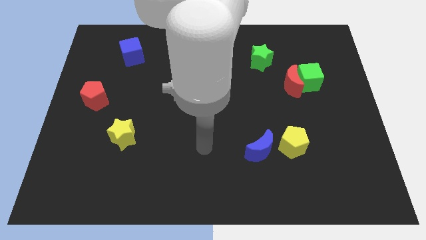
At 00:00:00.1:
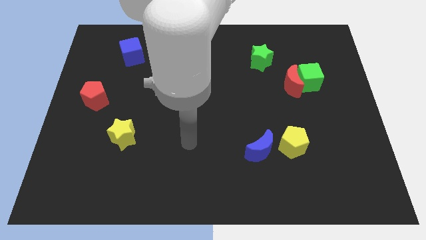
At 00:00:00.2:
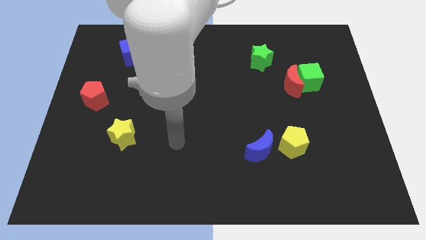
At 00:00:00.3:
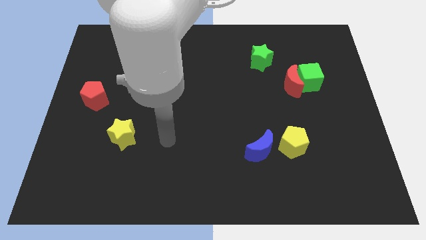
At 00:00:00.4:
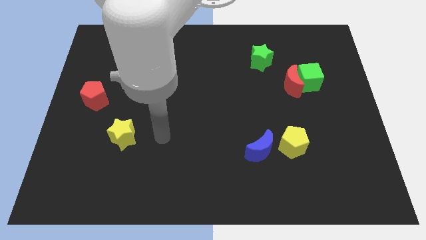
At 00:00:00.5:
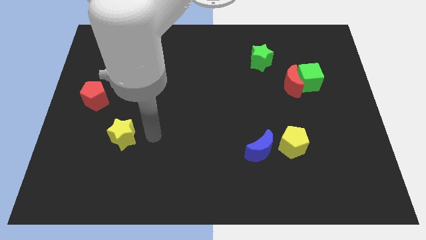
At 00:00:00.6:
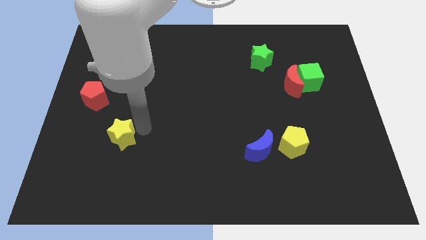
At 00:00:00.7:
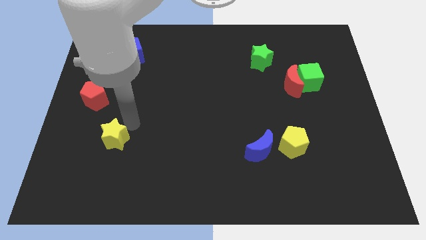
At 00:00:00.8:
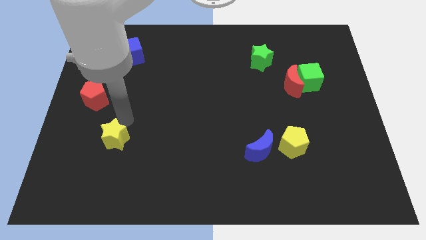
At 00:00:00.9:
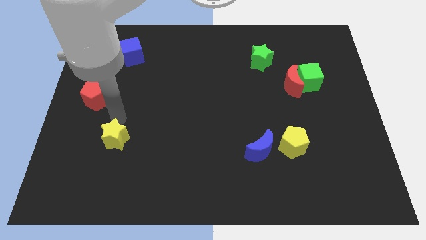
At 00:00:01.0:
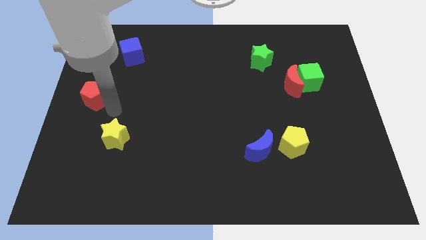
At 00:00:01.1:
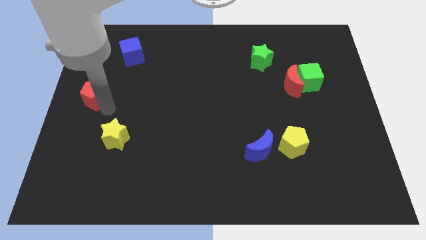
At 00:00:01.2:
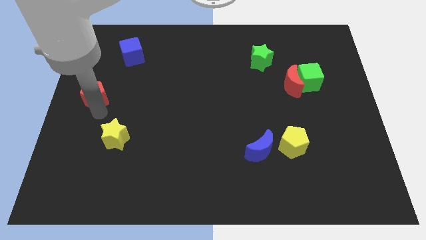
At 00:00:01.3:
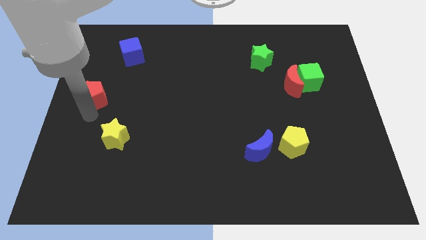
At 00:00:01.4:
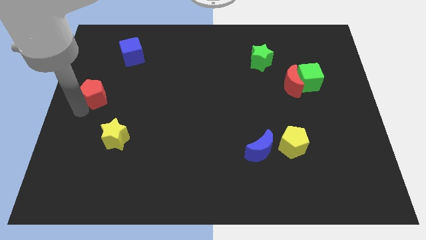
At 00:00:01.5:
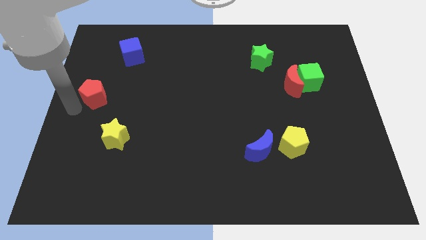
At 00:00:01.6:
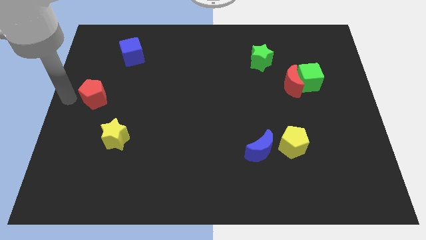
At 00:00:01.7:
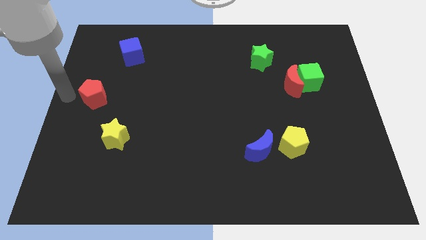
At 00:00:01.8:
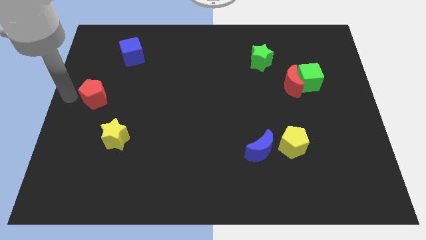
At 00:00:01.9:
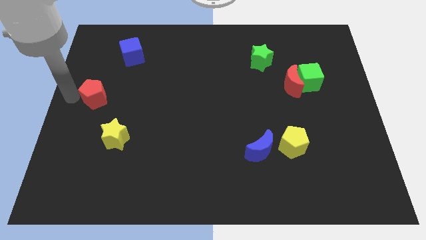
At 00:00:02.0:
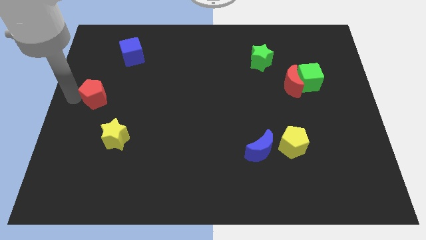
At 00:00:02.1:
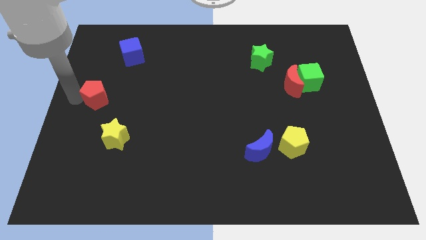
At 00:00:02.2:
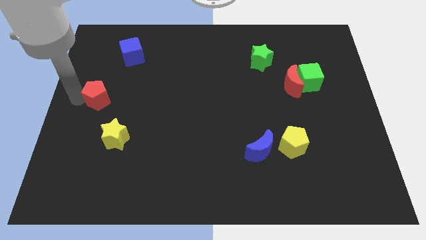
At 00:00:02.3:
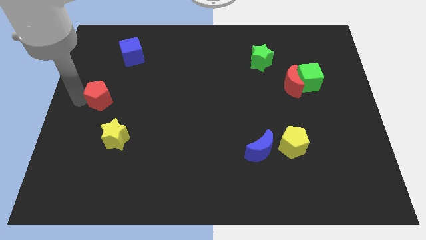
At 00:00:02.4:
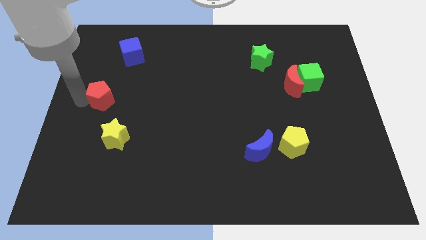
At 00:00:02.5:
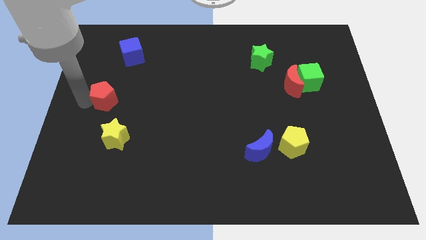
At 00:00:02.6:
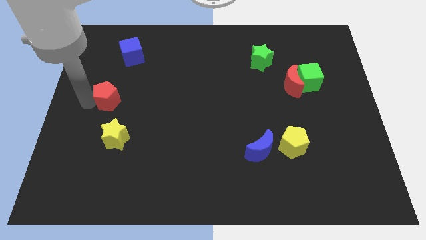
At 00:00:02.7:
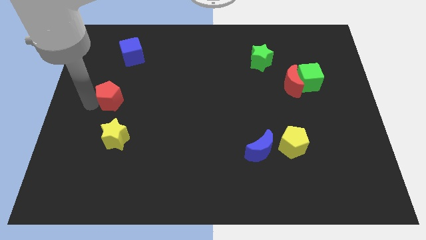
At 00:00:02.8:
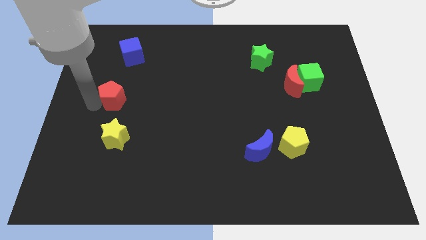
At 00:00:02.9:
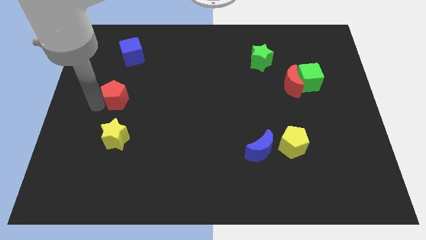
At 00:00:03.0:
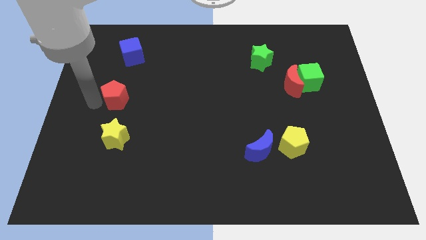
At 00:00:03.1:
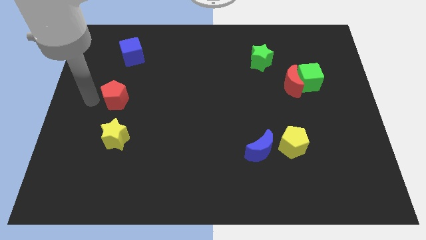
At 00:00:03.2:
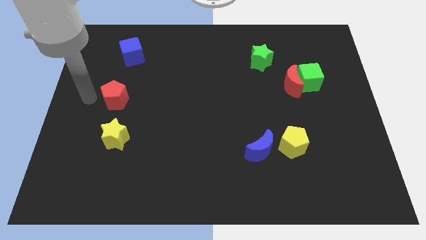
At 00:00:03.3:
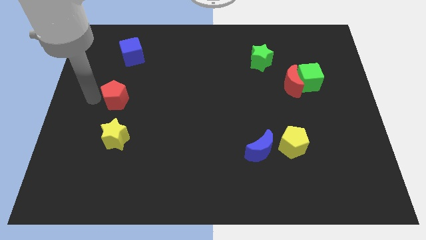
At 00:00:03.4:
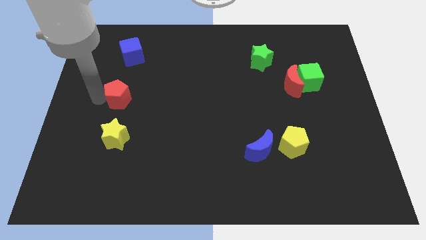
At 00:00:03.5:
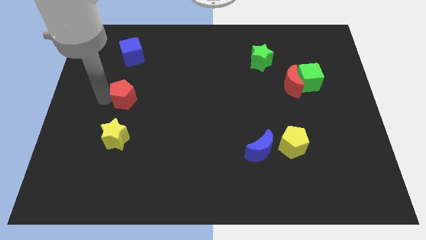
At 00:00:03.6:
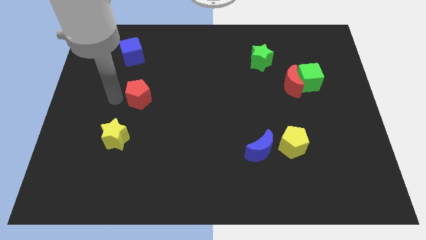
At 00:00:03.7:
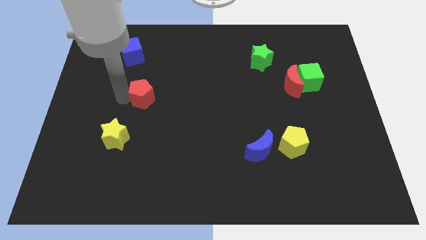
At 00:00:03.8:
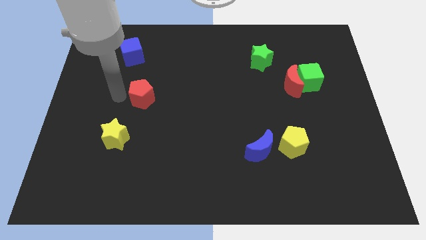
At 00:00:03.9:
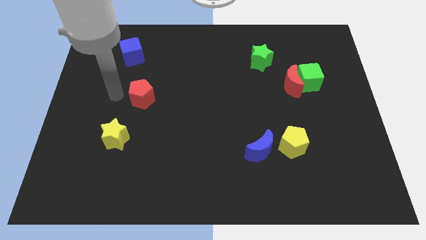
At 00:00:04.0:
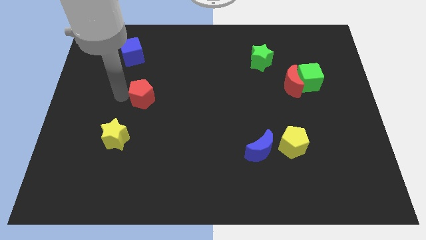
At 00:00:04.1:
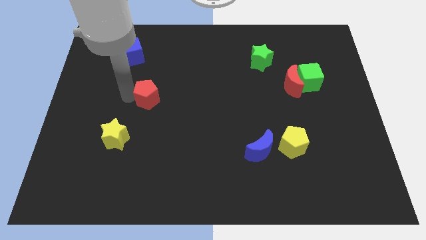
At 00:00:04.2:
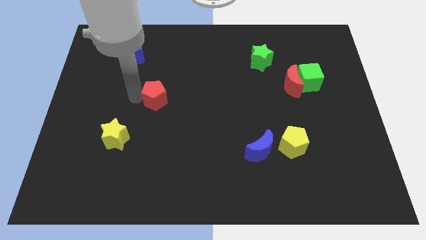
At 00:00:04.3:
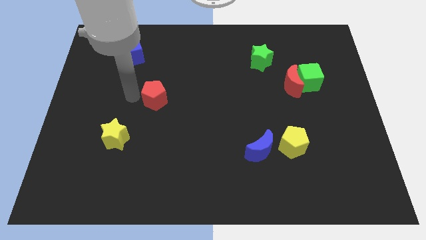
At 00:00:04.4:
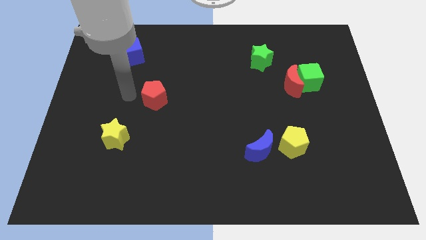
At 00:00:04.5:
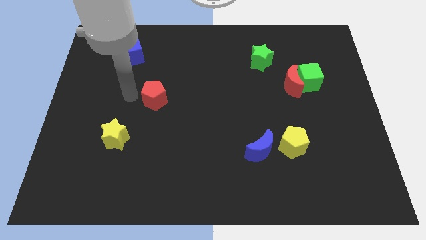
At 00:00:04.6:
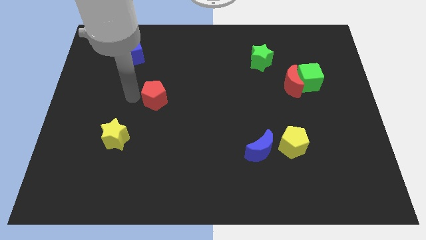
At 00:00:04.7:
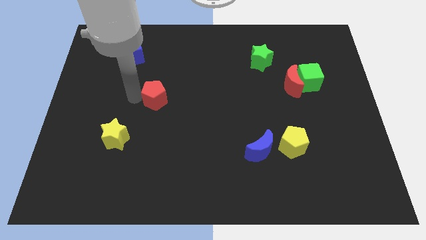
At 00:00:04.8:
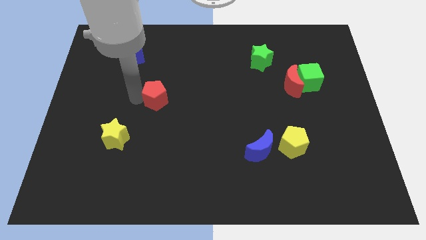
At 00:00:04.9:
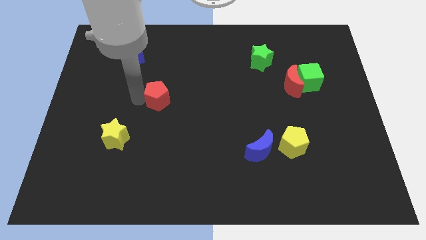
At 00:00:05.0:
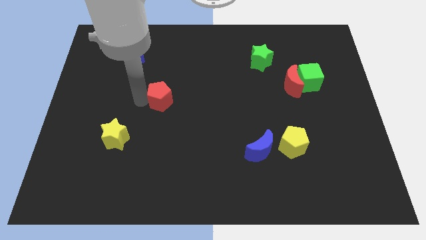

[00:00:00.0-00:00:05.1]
move the red pentagon to the middle
